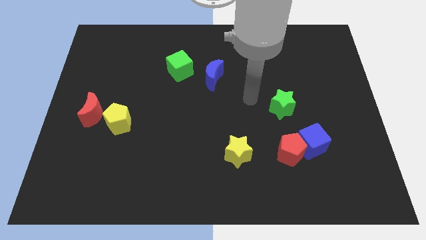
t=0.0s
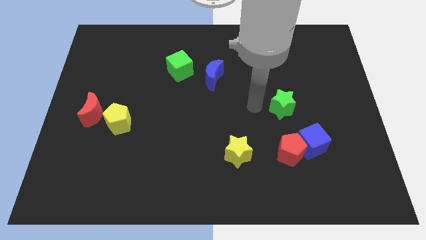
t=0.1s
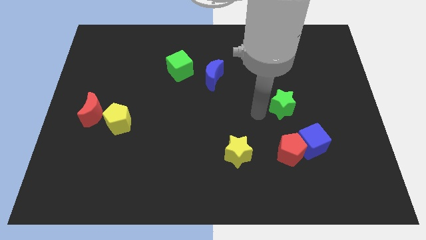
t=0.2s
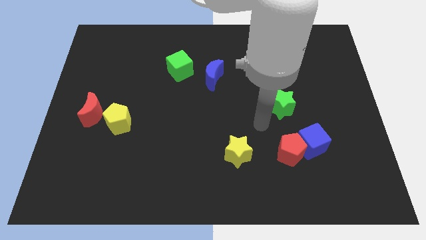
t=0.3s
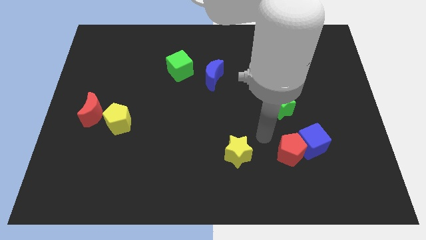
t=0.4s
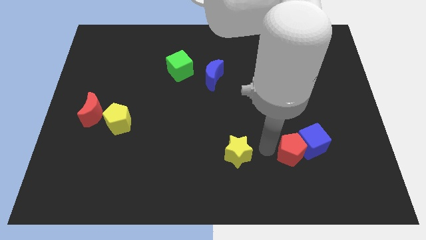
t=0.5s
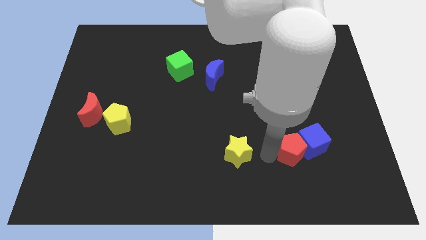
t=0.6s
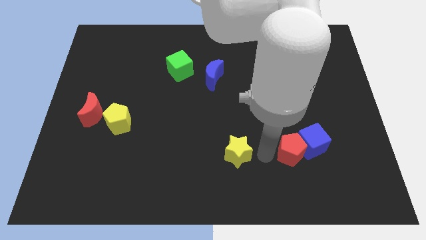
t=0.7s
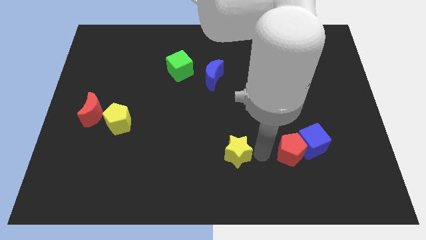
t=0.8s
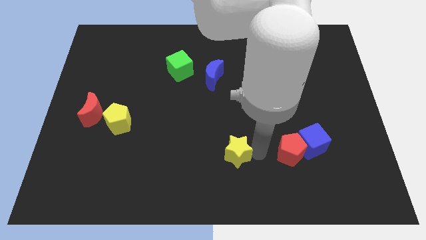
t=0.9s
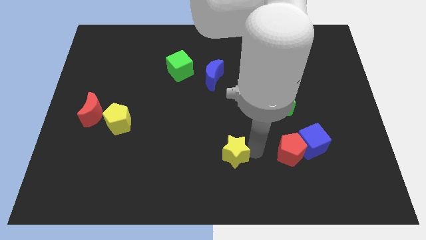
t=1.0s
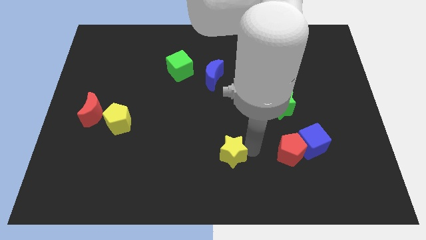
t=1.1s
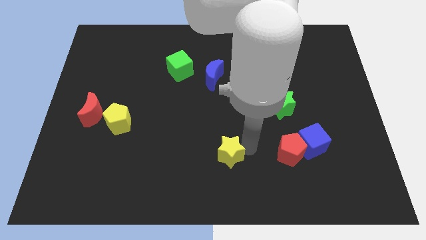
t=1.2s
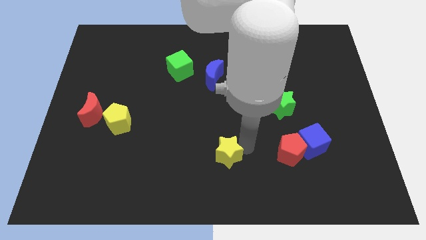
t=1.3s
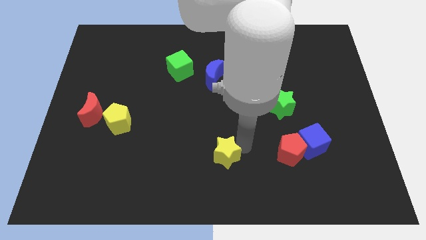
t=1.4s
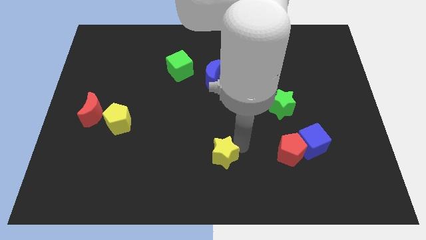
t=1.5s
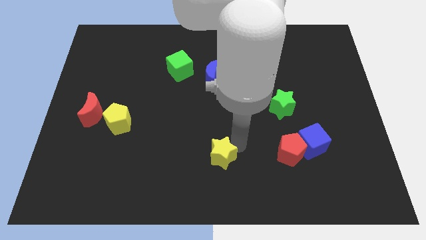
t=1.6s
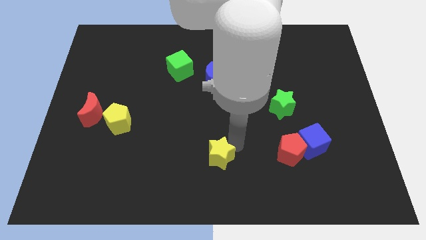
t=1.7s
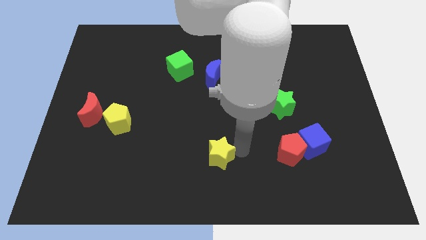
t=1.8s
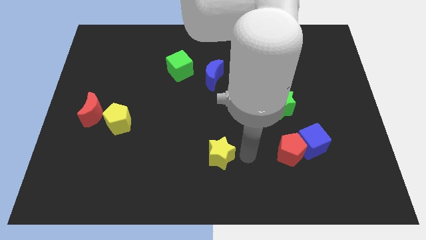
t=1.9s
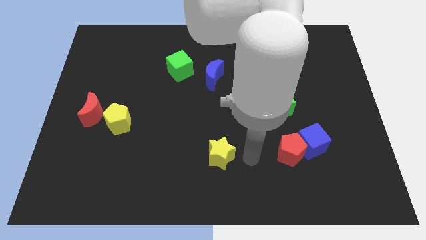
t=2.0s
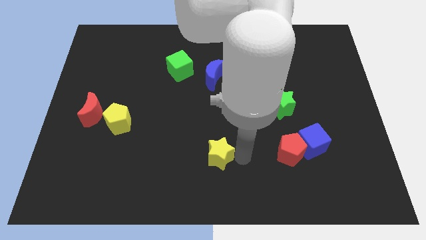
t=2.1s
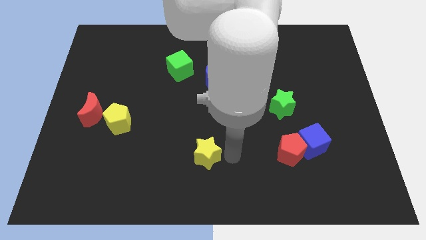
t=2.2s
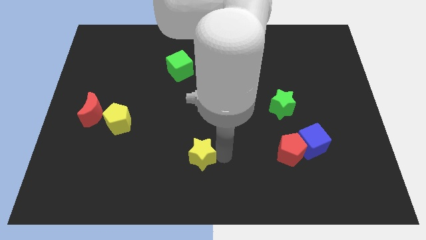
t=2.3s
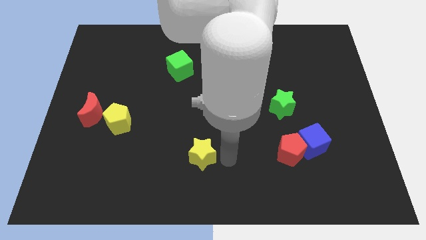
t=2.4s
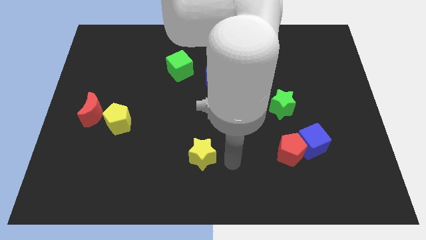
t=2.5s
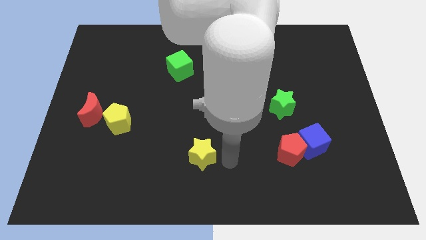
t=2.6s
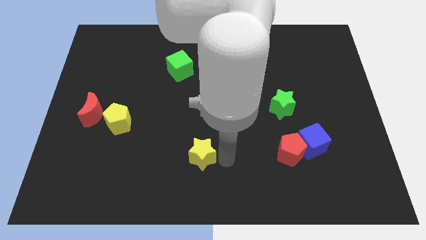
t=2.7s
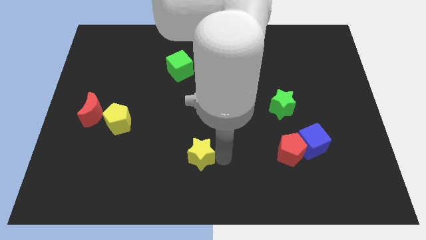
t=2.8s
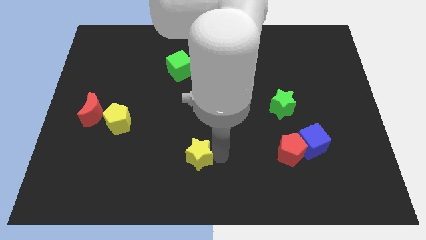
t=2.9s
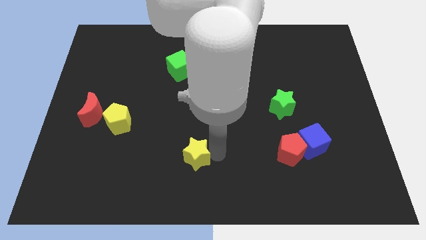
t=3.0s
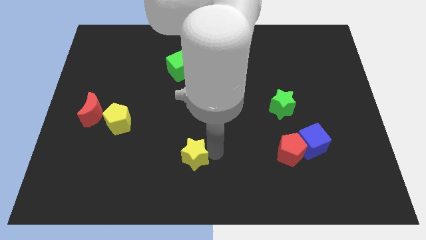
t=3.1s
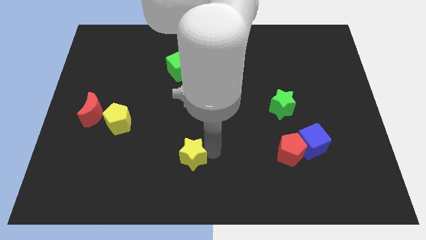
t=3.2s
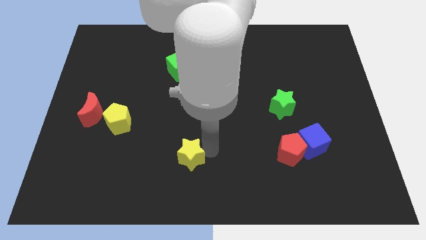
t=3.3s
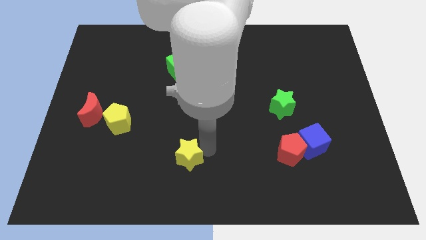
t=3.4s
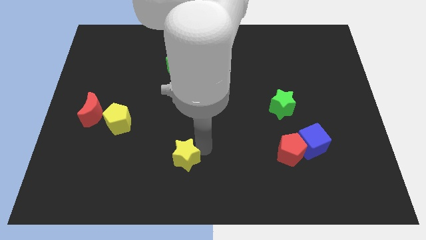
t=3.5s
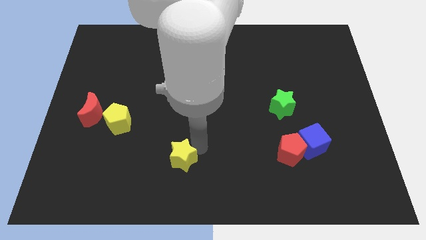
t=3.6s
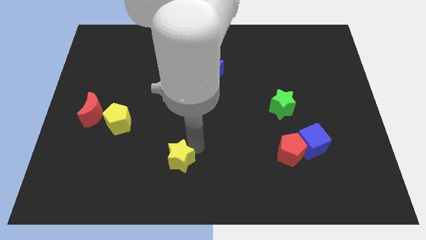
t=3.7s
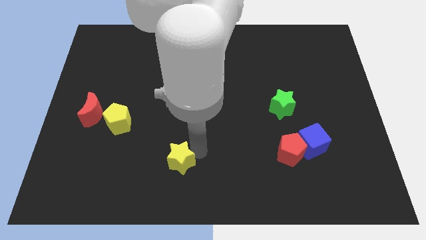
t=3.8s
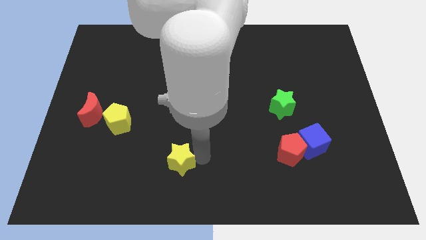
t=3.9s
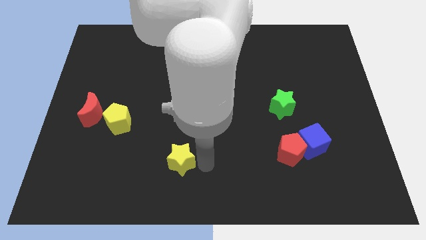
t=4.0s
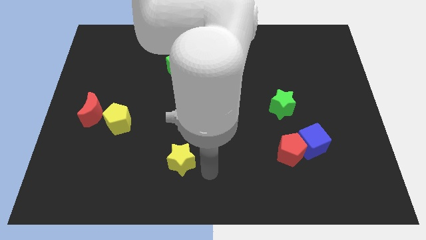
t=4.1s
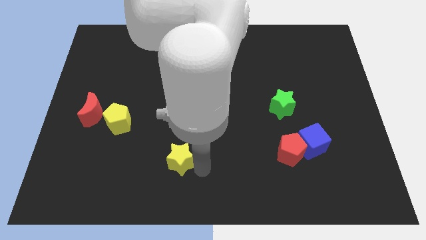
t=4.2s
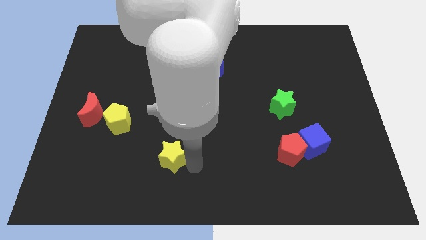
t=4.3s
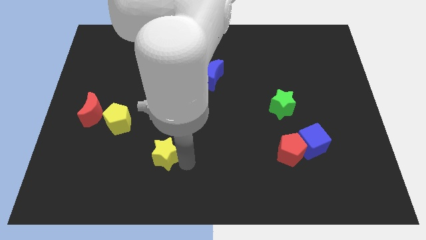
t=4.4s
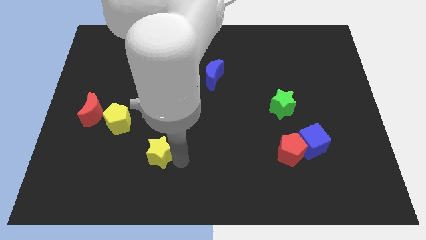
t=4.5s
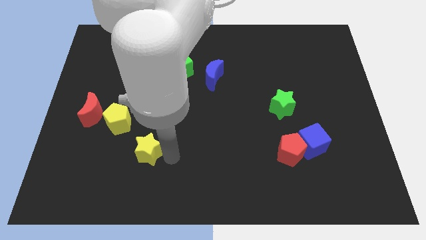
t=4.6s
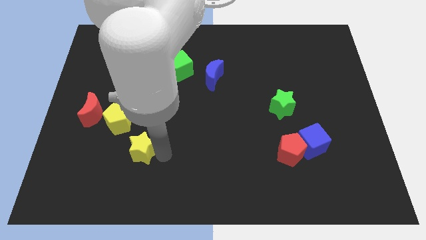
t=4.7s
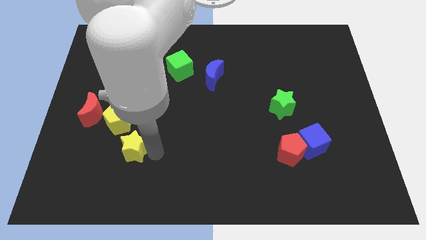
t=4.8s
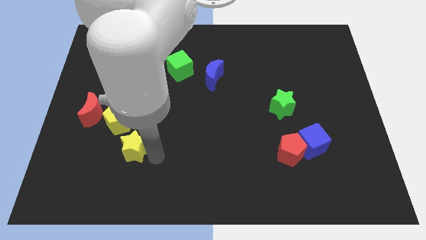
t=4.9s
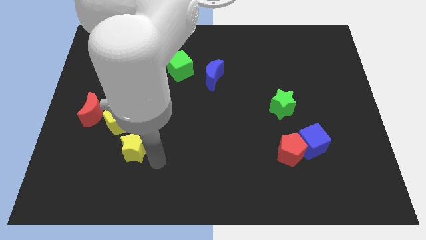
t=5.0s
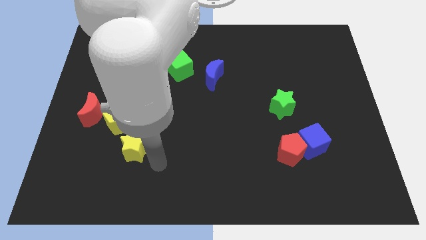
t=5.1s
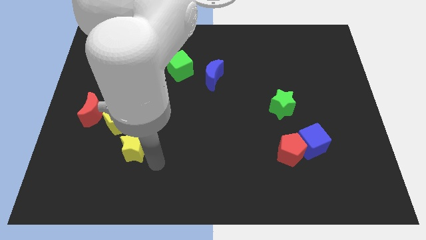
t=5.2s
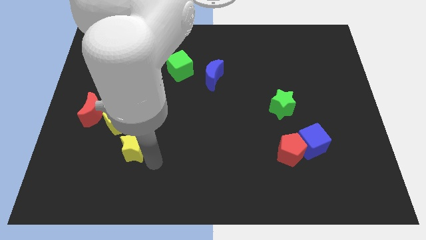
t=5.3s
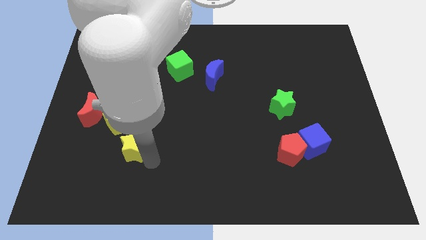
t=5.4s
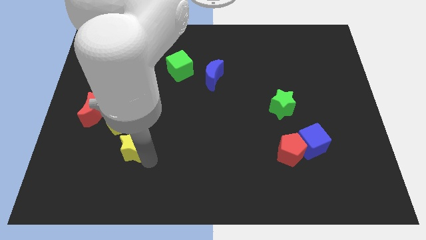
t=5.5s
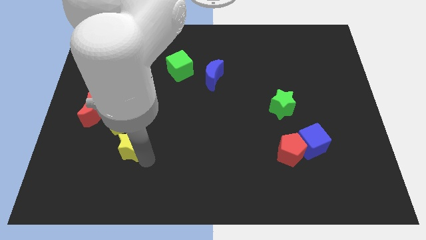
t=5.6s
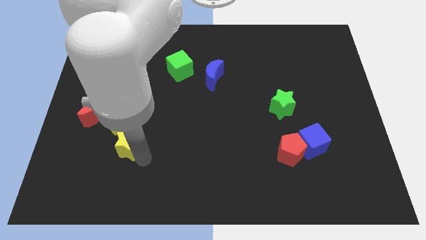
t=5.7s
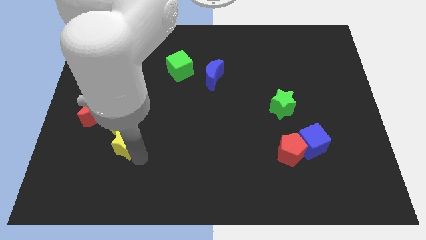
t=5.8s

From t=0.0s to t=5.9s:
move the yellow star to the bottom right of the red moon

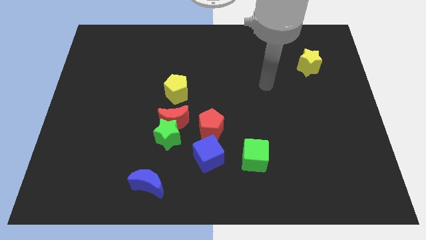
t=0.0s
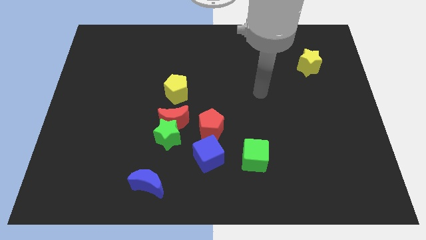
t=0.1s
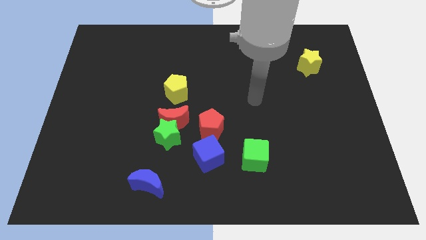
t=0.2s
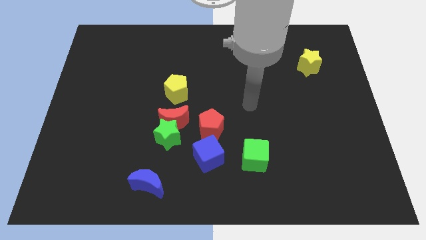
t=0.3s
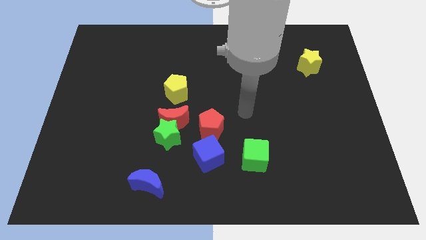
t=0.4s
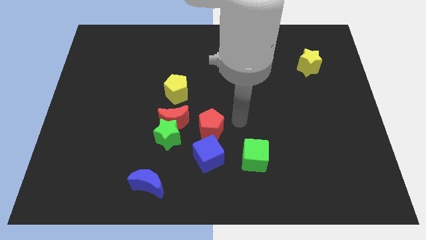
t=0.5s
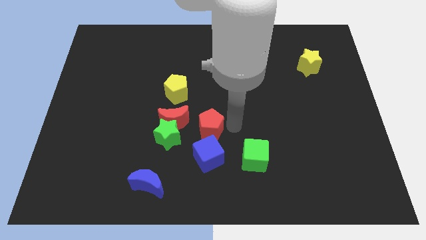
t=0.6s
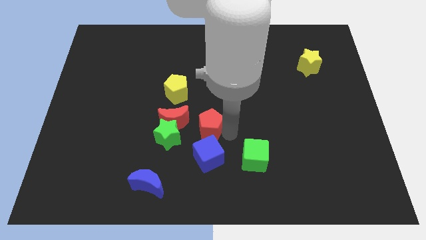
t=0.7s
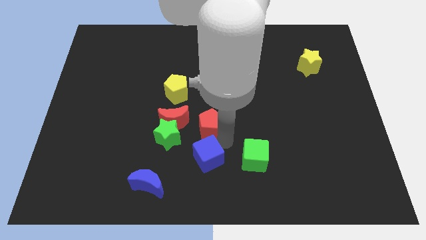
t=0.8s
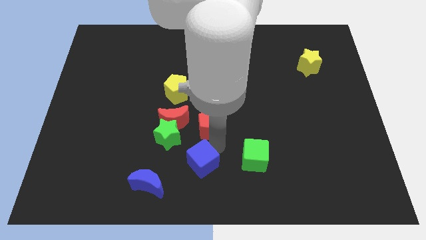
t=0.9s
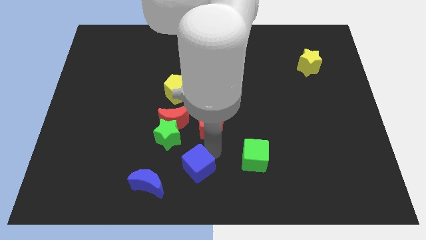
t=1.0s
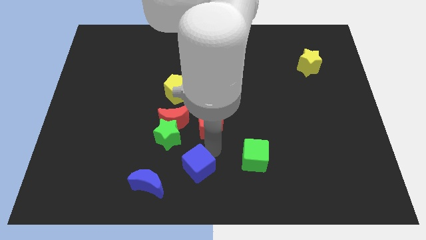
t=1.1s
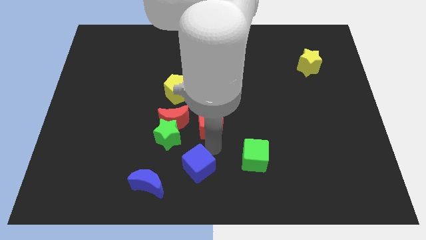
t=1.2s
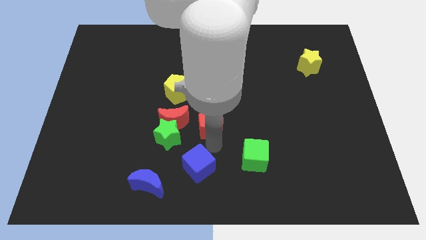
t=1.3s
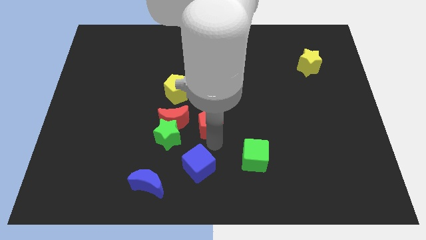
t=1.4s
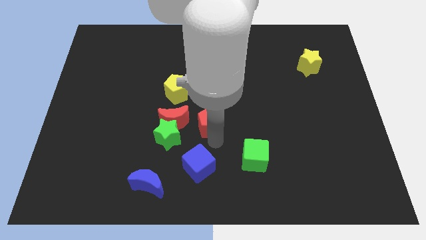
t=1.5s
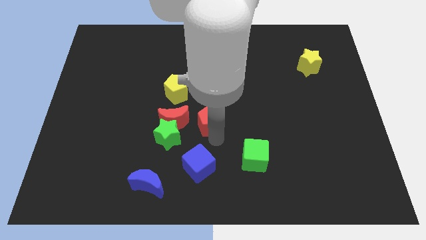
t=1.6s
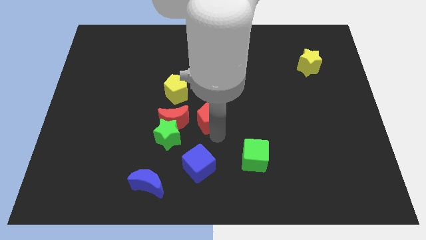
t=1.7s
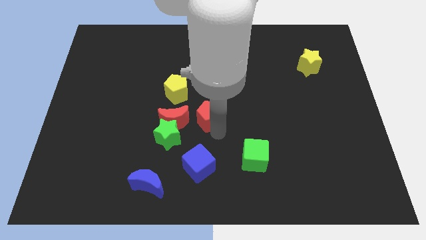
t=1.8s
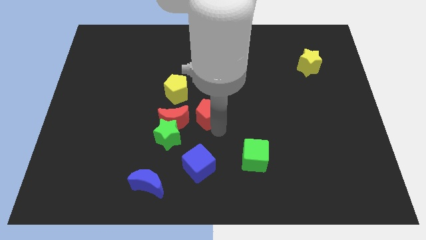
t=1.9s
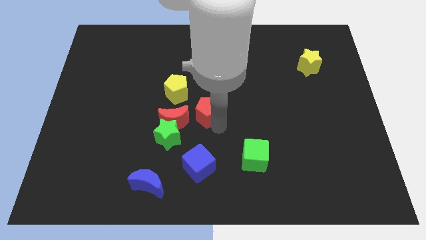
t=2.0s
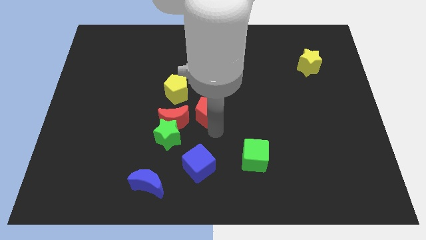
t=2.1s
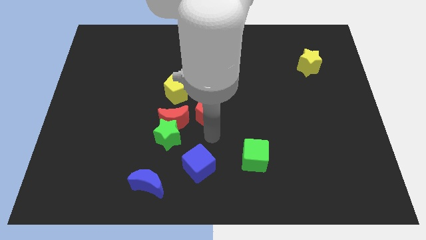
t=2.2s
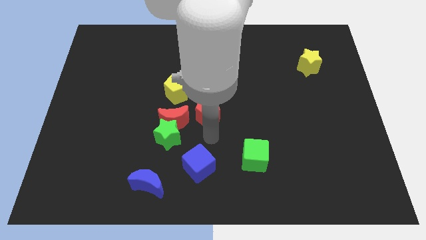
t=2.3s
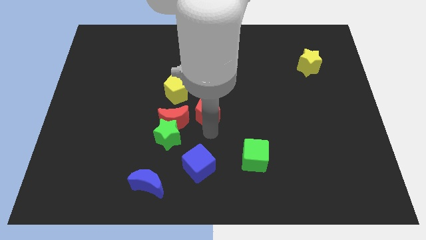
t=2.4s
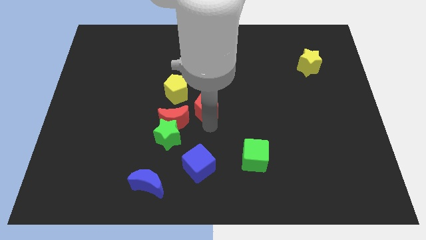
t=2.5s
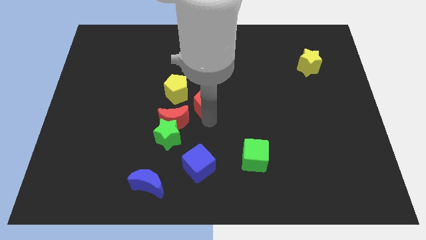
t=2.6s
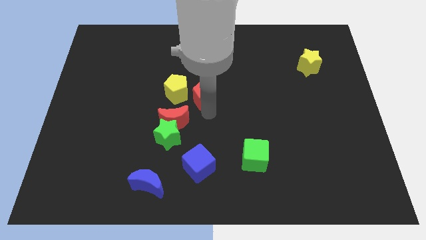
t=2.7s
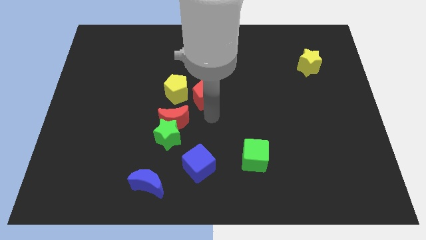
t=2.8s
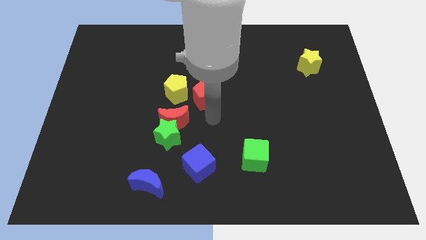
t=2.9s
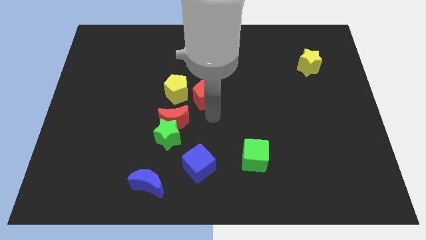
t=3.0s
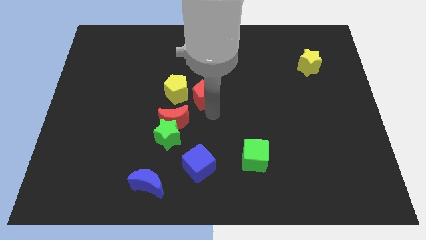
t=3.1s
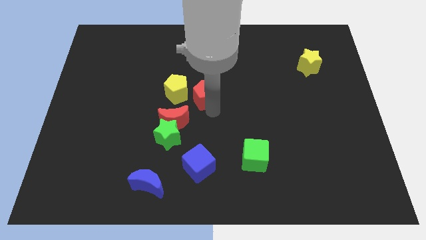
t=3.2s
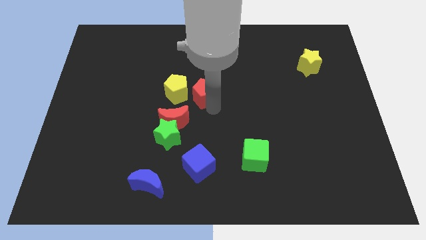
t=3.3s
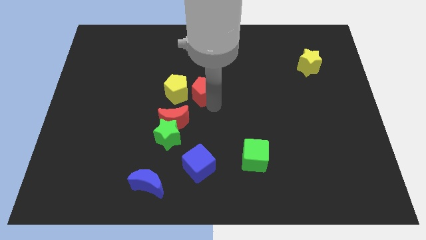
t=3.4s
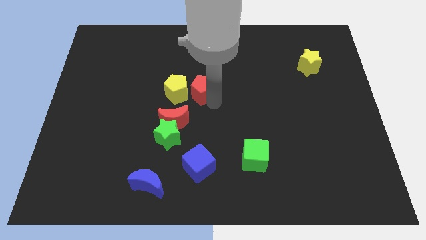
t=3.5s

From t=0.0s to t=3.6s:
slide the red pentagon diagonally up and to the right of the yellow pentagon
